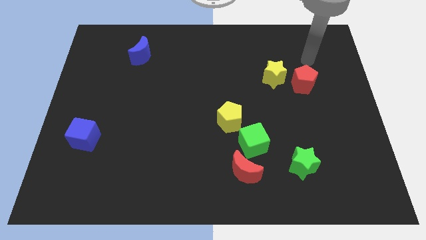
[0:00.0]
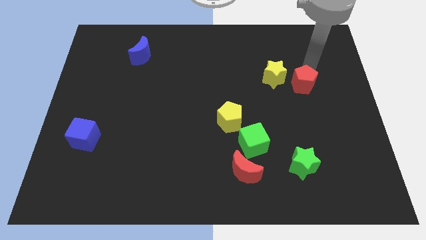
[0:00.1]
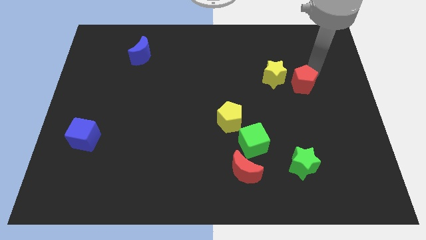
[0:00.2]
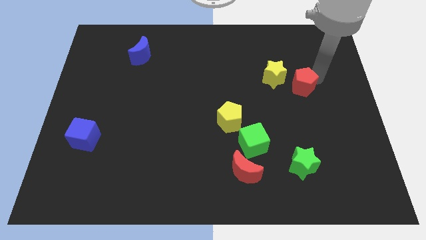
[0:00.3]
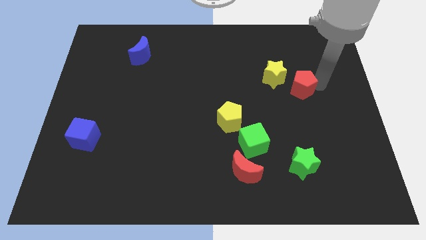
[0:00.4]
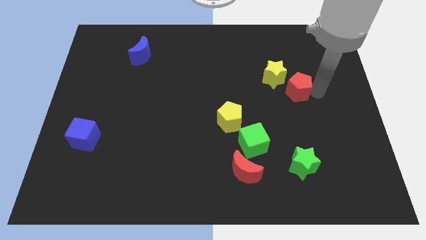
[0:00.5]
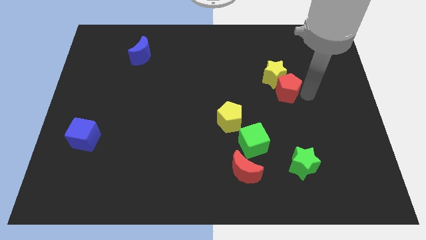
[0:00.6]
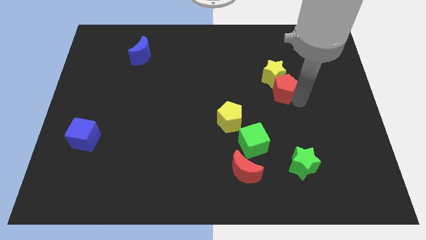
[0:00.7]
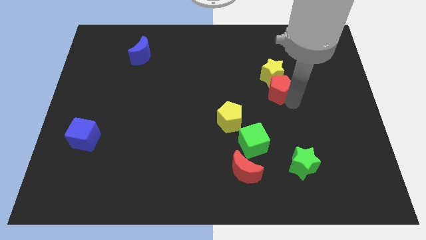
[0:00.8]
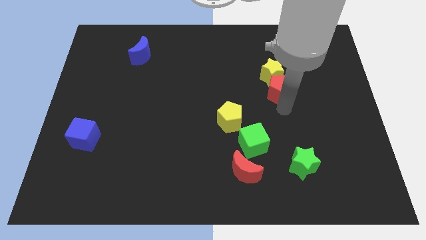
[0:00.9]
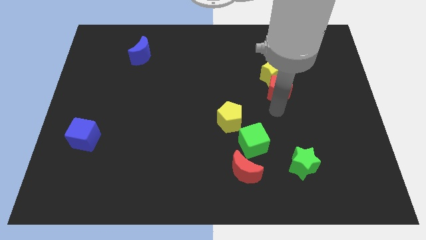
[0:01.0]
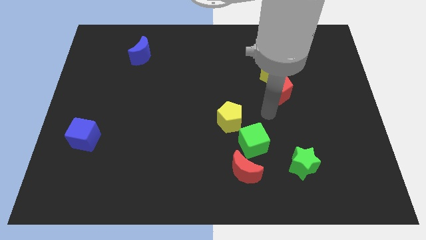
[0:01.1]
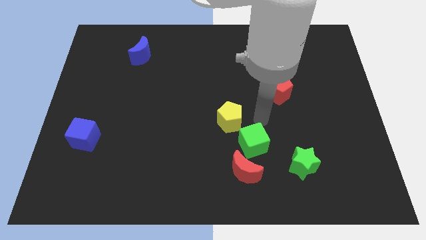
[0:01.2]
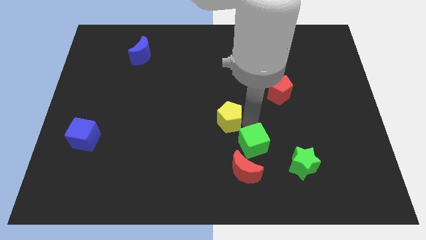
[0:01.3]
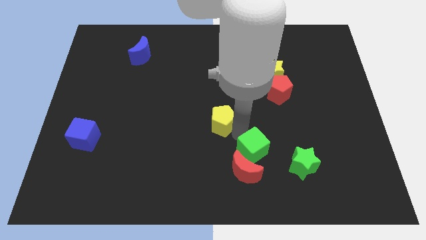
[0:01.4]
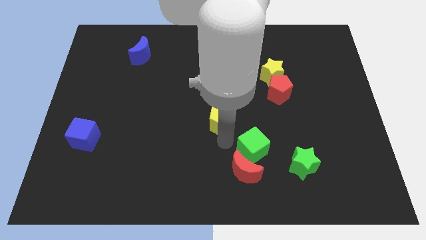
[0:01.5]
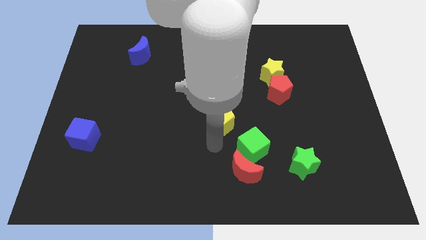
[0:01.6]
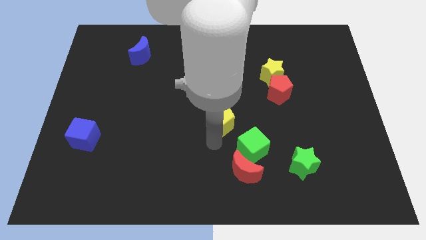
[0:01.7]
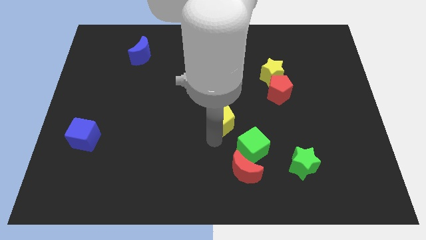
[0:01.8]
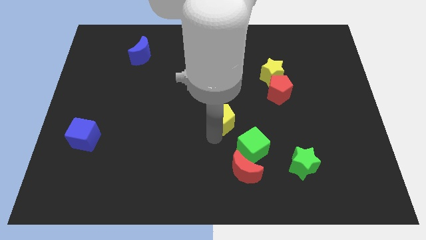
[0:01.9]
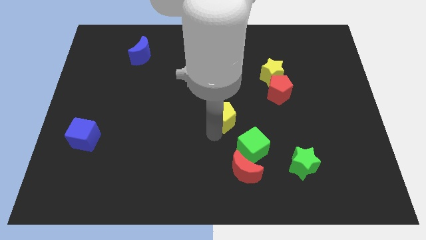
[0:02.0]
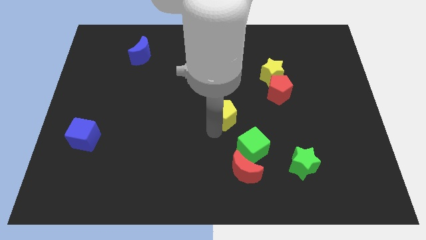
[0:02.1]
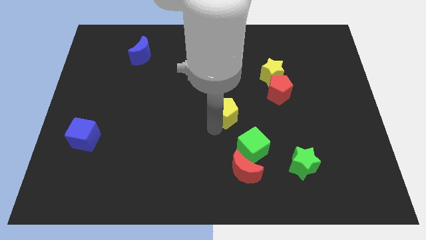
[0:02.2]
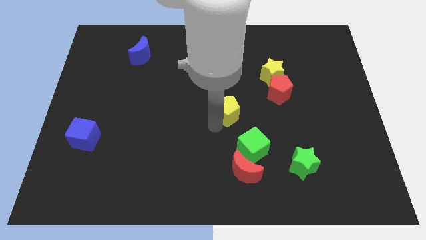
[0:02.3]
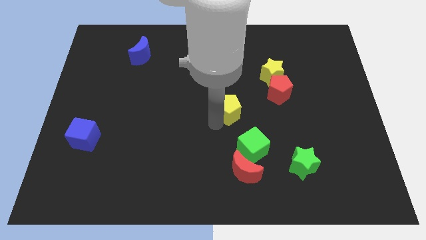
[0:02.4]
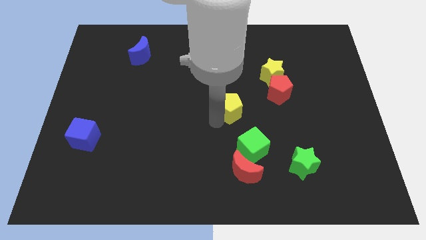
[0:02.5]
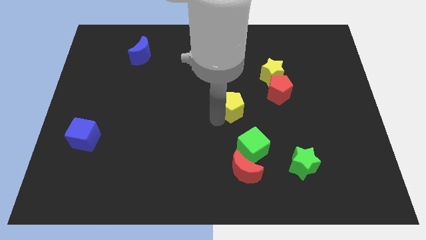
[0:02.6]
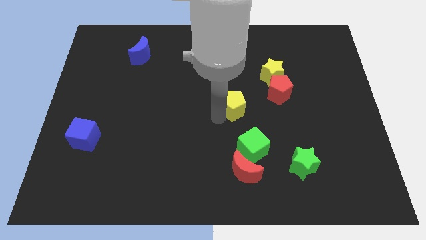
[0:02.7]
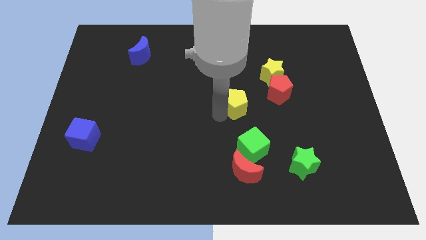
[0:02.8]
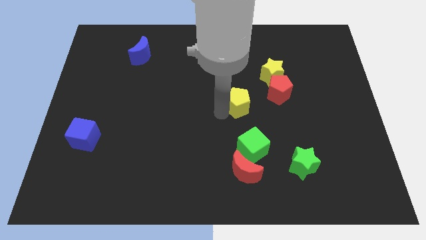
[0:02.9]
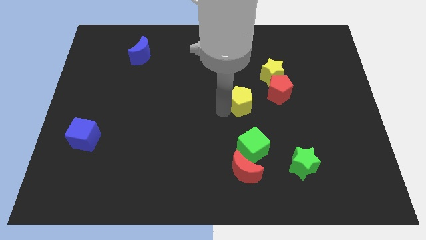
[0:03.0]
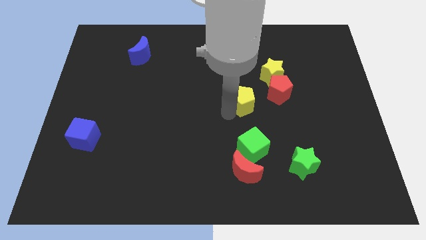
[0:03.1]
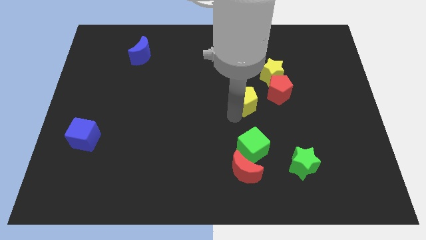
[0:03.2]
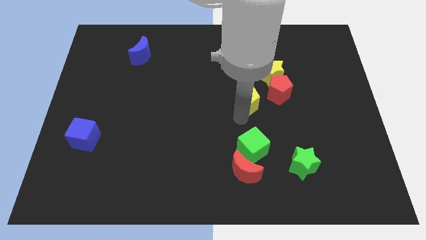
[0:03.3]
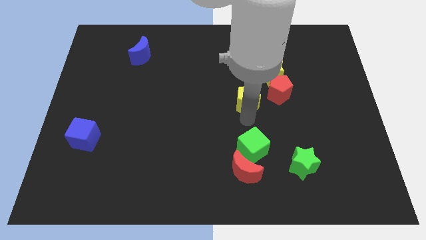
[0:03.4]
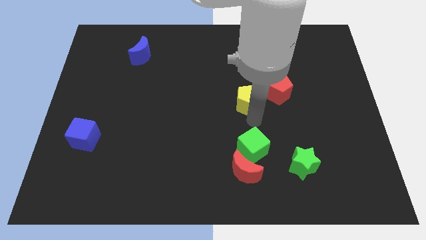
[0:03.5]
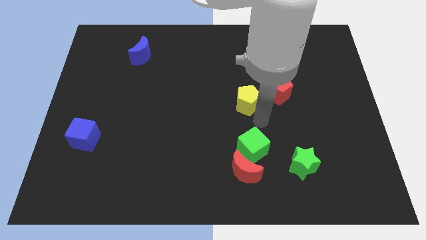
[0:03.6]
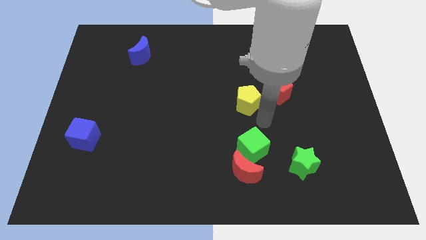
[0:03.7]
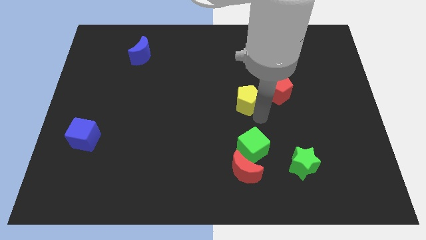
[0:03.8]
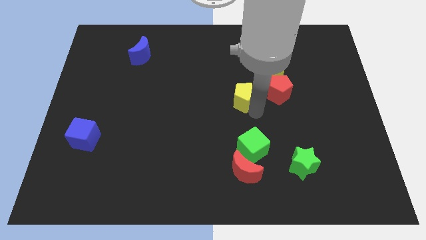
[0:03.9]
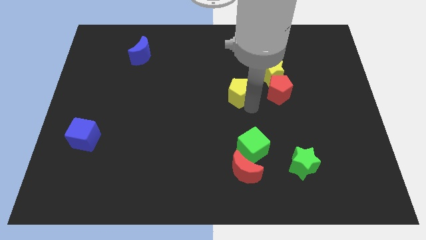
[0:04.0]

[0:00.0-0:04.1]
move the yellow pentagon upwards a little bit

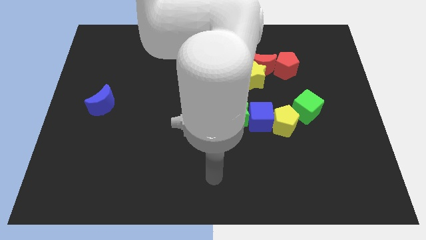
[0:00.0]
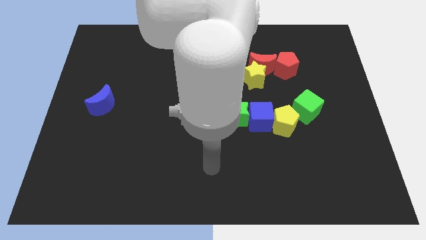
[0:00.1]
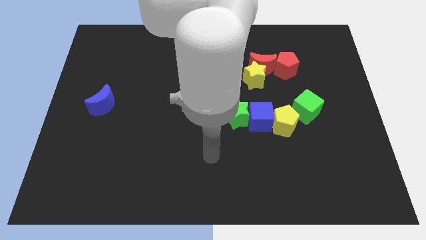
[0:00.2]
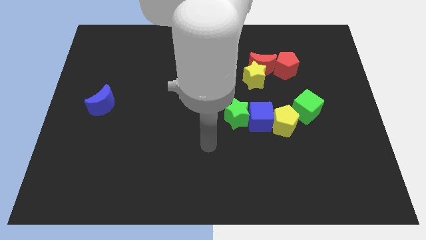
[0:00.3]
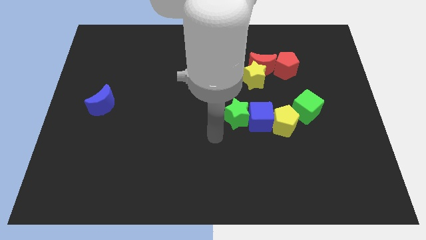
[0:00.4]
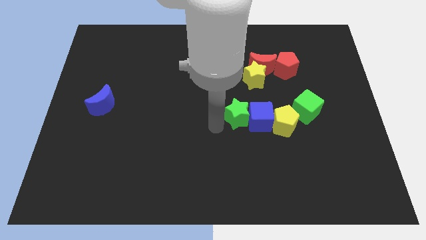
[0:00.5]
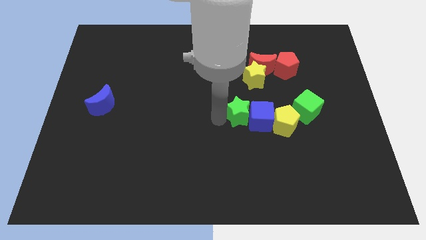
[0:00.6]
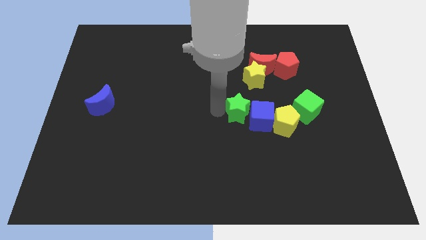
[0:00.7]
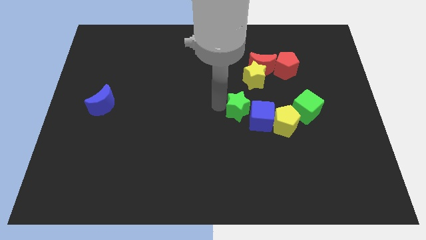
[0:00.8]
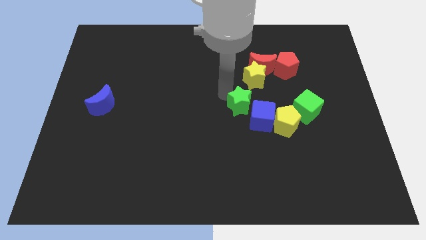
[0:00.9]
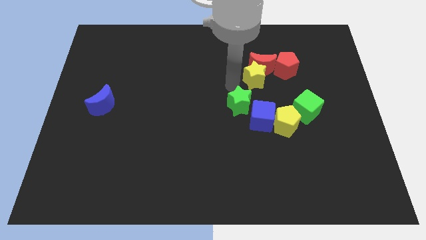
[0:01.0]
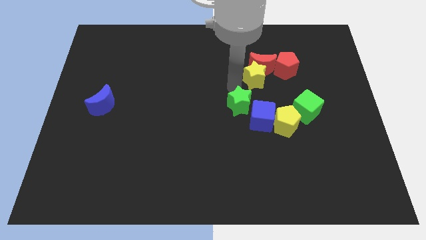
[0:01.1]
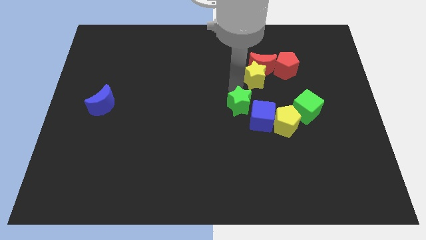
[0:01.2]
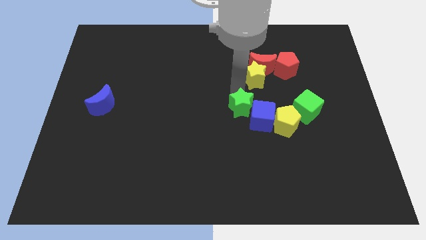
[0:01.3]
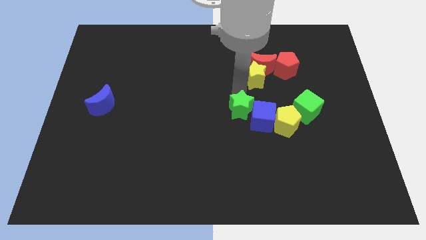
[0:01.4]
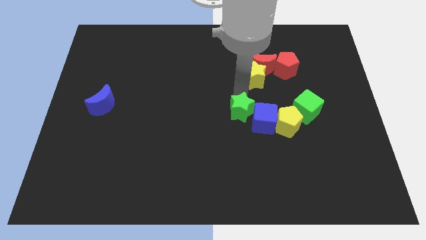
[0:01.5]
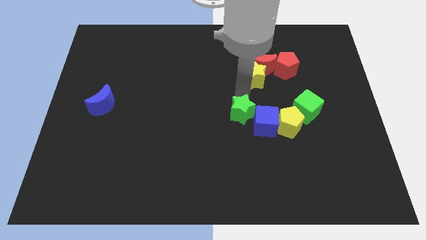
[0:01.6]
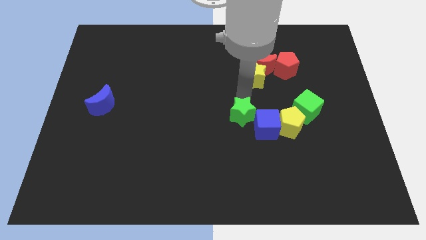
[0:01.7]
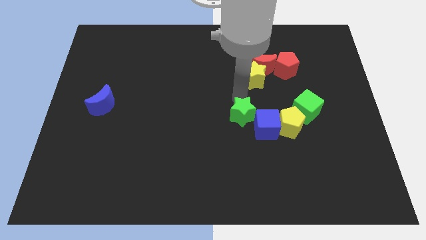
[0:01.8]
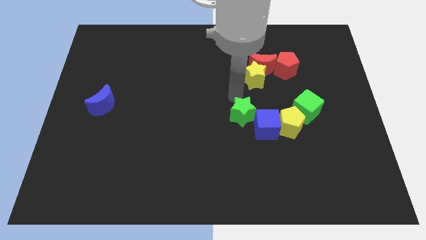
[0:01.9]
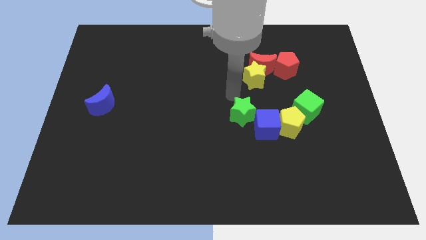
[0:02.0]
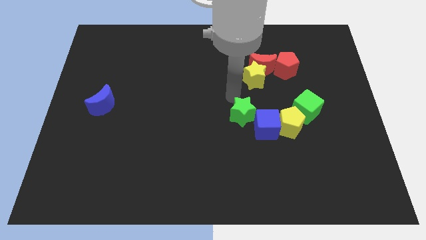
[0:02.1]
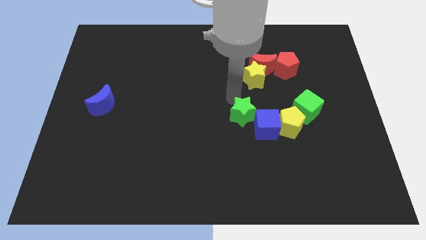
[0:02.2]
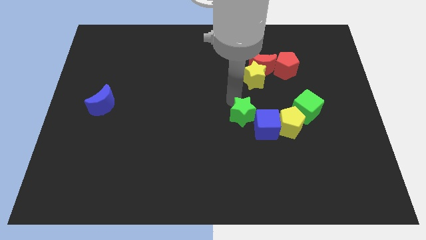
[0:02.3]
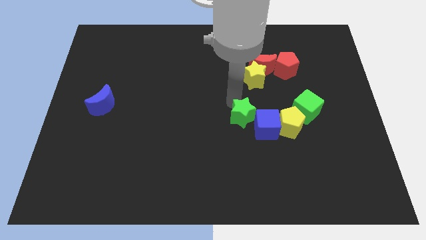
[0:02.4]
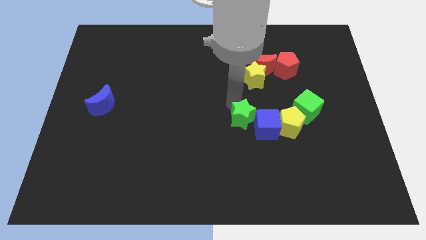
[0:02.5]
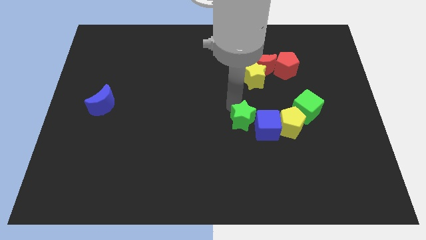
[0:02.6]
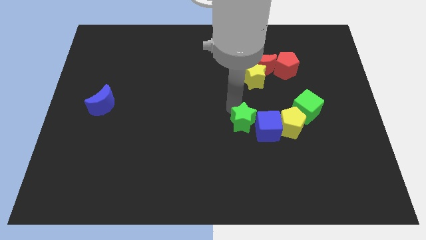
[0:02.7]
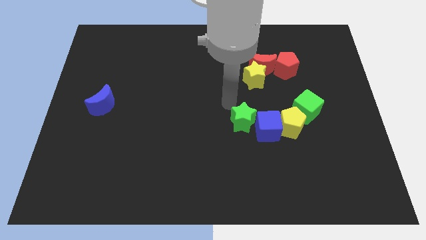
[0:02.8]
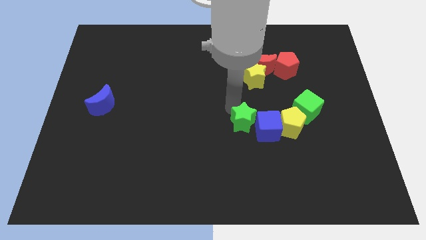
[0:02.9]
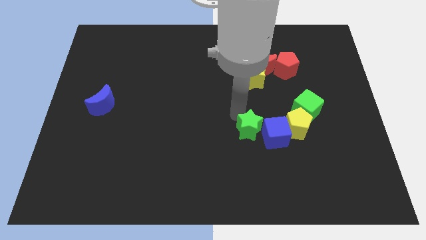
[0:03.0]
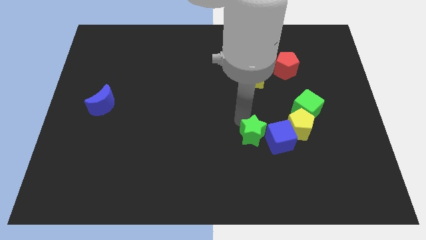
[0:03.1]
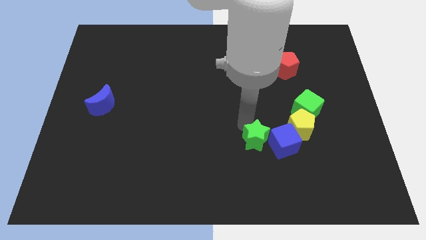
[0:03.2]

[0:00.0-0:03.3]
move the green star a little bit diagonally down and to the right

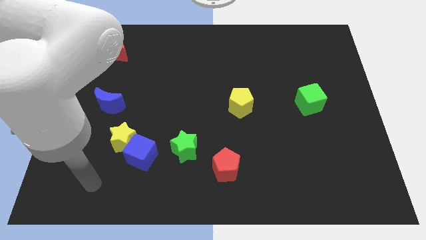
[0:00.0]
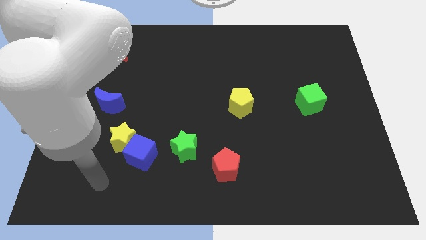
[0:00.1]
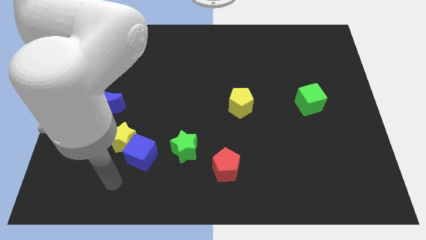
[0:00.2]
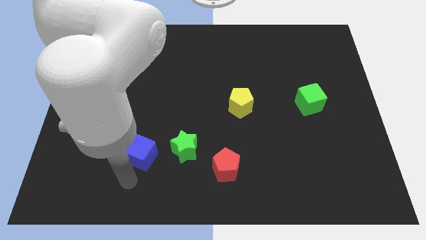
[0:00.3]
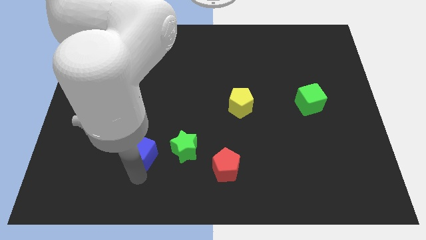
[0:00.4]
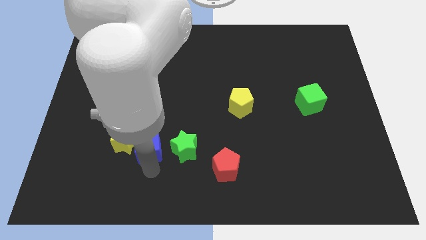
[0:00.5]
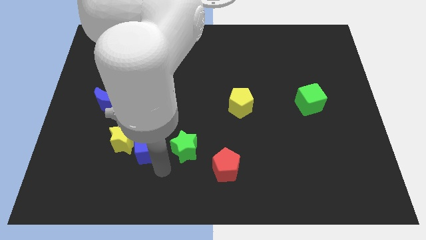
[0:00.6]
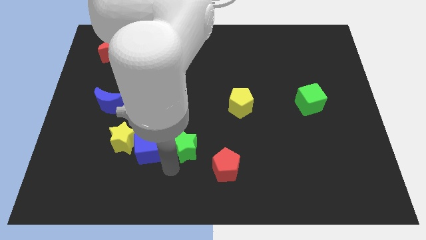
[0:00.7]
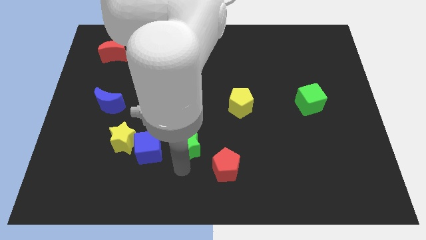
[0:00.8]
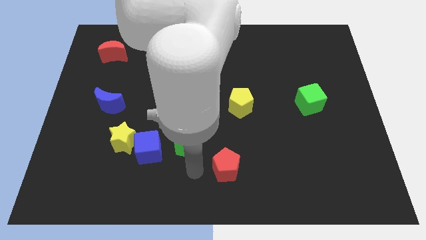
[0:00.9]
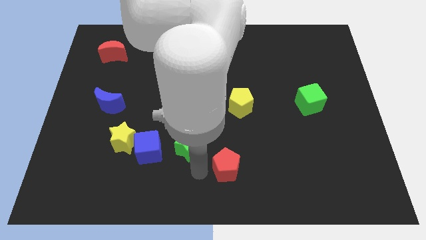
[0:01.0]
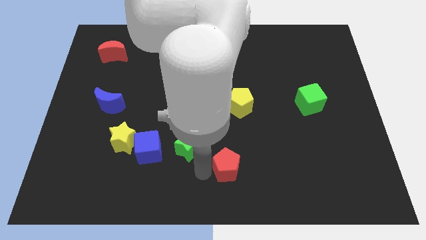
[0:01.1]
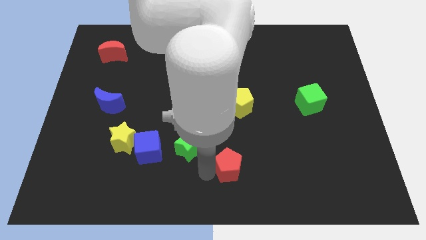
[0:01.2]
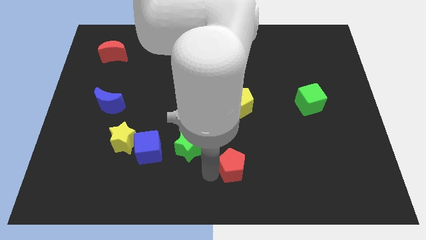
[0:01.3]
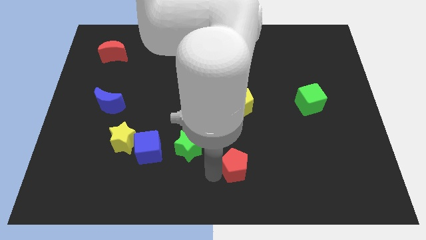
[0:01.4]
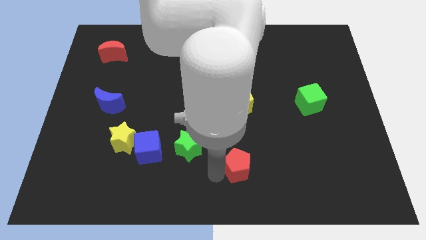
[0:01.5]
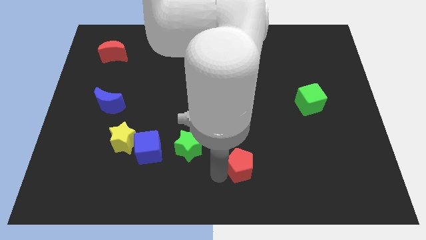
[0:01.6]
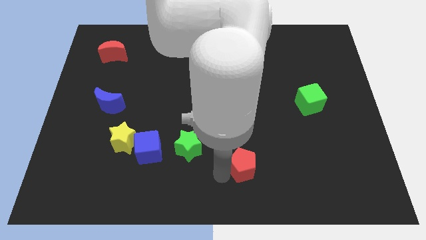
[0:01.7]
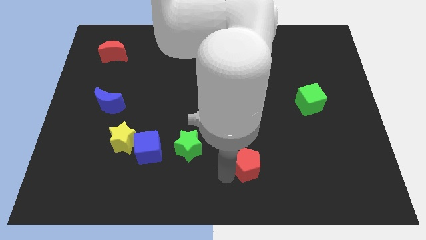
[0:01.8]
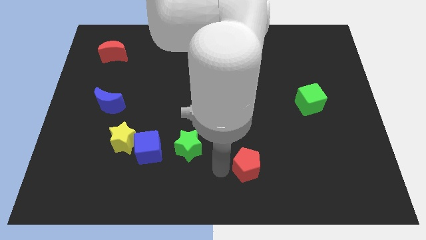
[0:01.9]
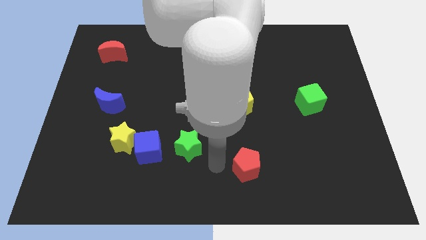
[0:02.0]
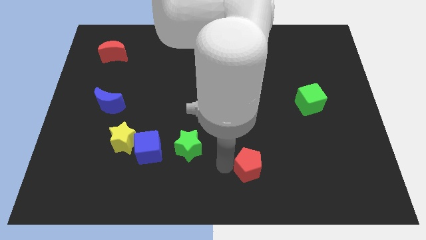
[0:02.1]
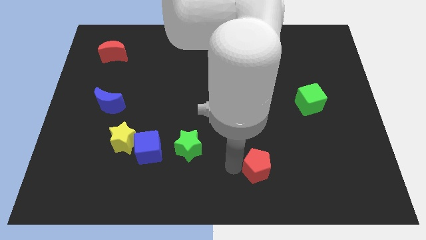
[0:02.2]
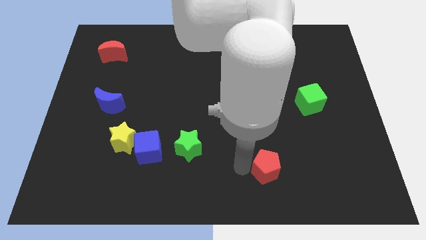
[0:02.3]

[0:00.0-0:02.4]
slide the red pentagon to the right a bit
